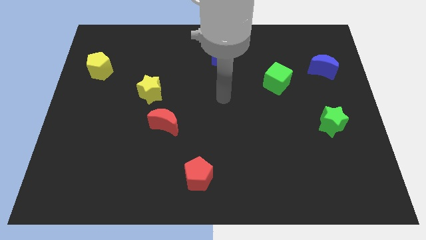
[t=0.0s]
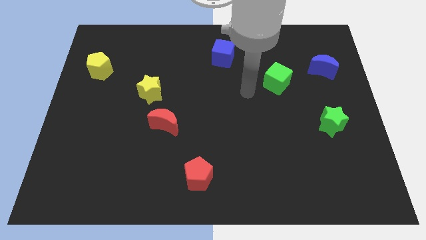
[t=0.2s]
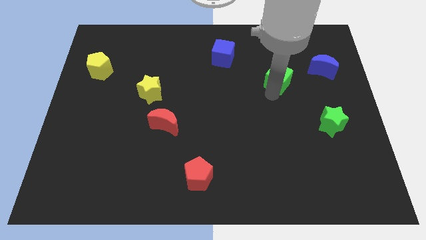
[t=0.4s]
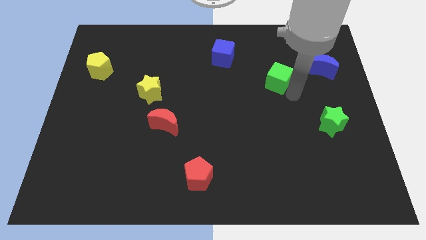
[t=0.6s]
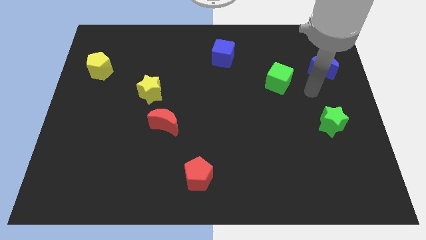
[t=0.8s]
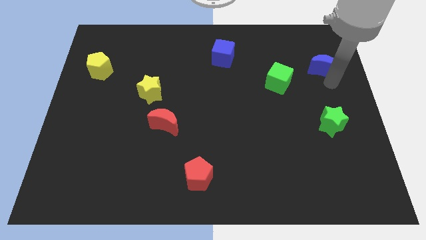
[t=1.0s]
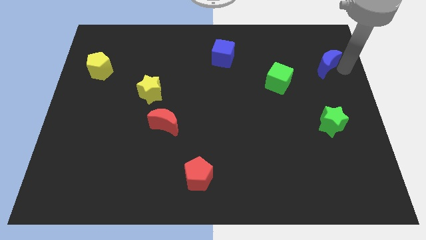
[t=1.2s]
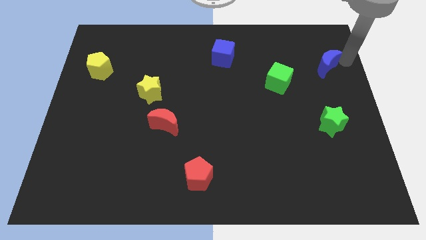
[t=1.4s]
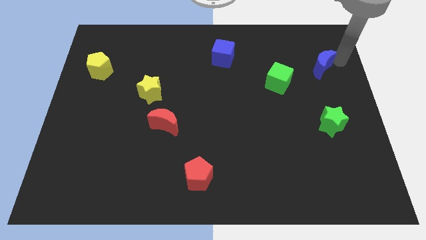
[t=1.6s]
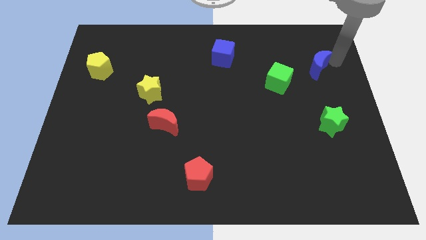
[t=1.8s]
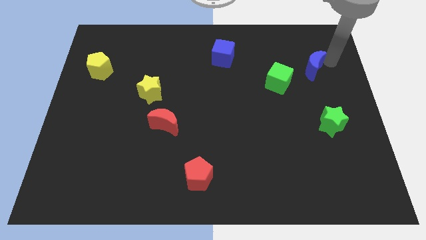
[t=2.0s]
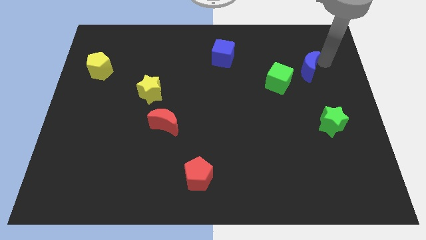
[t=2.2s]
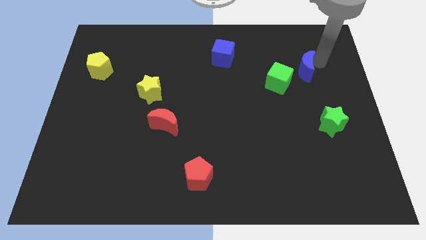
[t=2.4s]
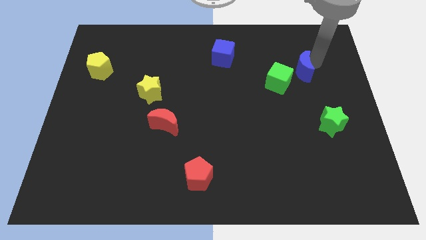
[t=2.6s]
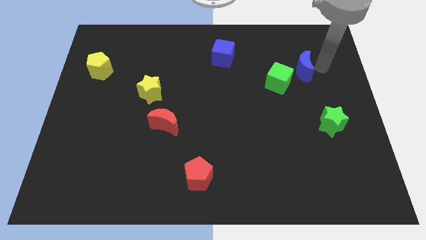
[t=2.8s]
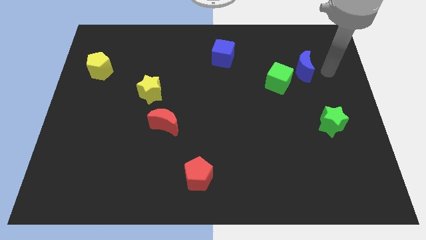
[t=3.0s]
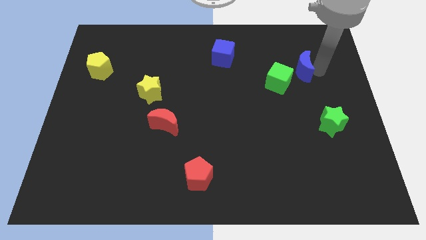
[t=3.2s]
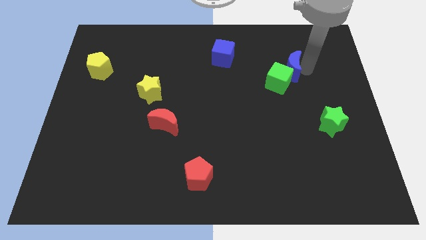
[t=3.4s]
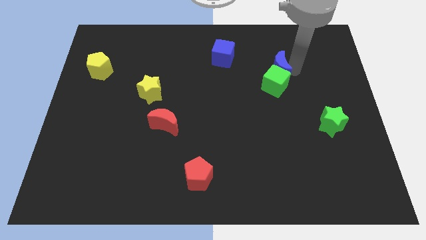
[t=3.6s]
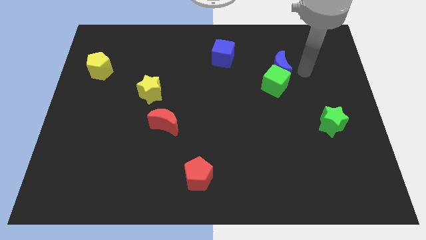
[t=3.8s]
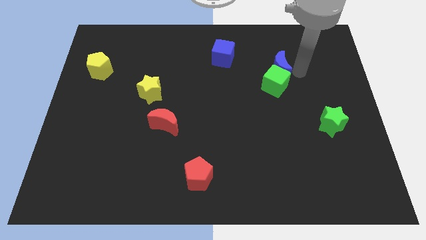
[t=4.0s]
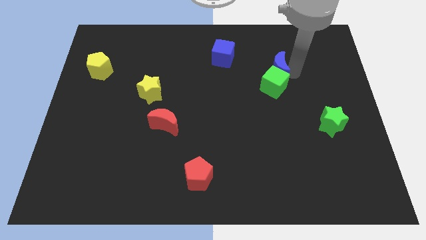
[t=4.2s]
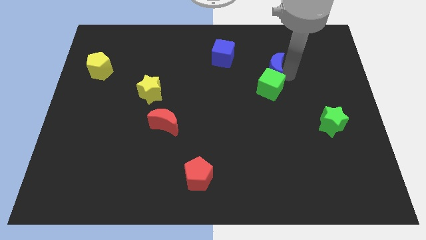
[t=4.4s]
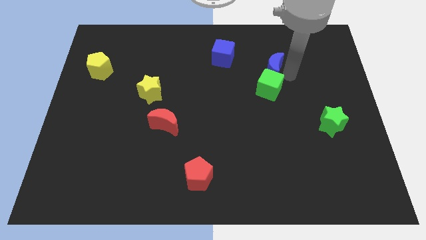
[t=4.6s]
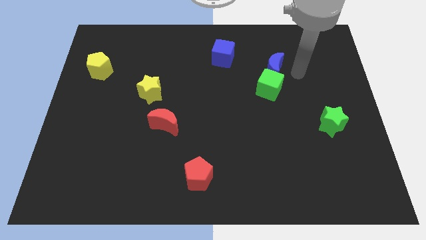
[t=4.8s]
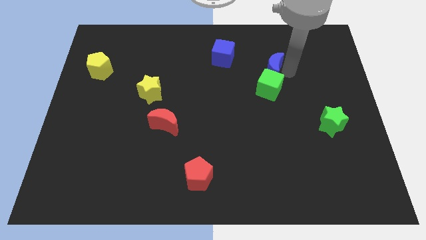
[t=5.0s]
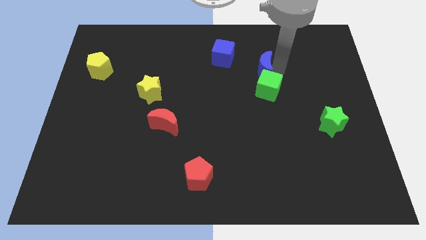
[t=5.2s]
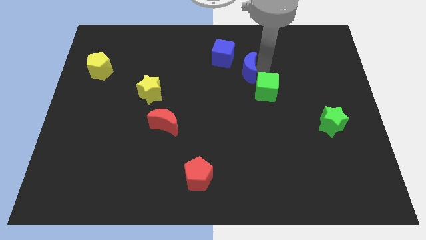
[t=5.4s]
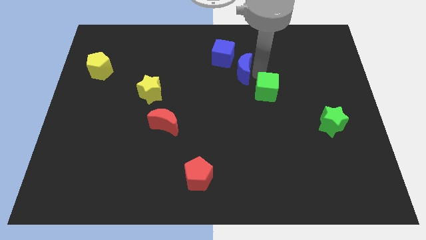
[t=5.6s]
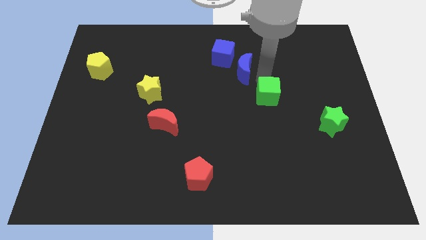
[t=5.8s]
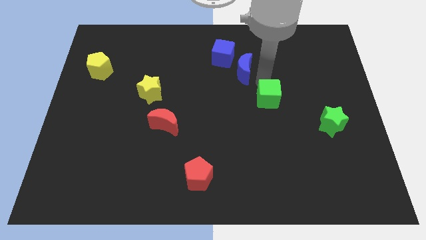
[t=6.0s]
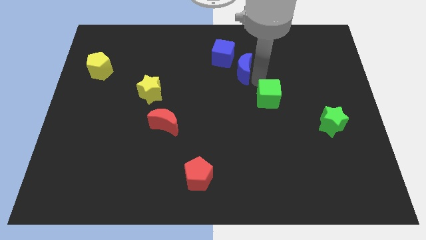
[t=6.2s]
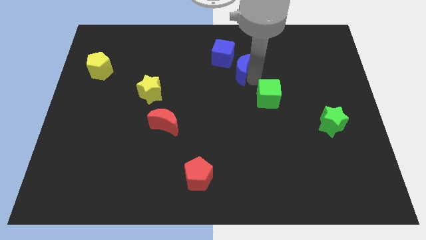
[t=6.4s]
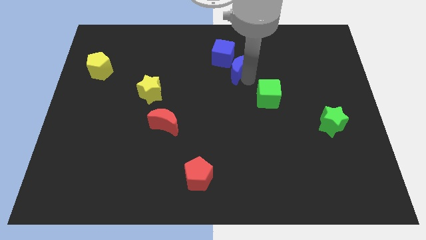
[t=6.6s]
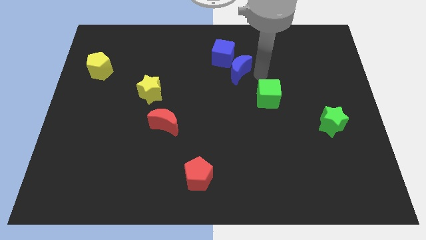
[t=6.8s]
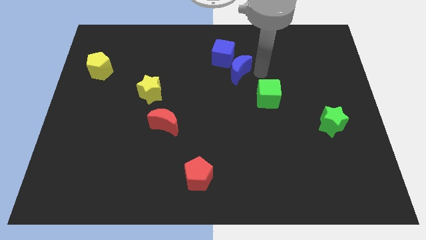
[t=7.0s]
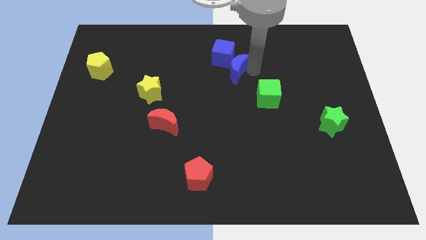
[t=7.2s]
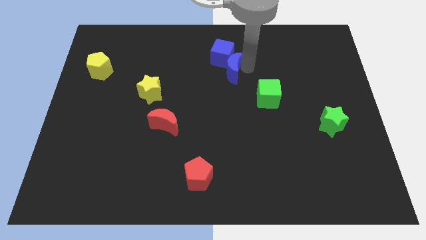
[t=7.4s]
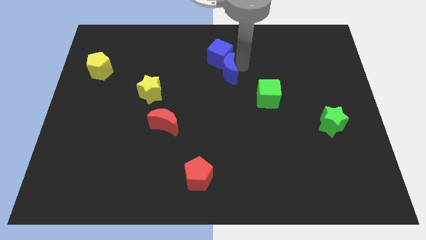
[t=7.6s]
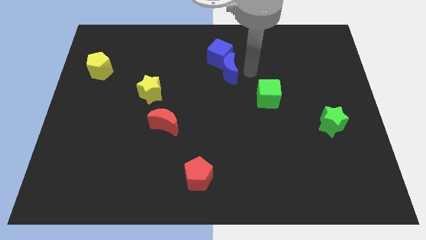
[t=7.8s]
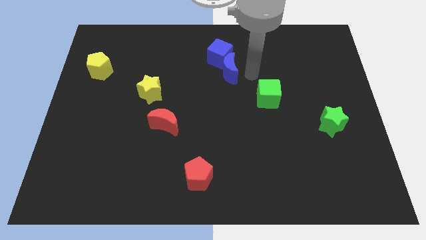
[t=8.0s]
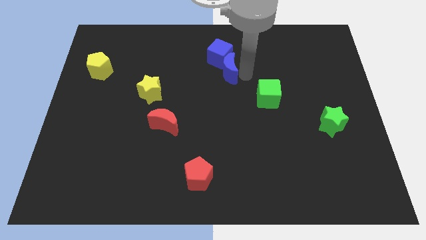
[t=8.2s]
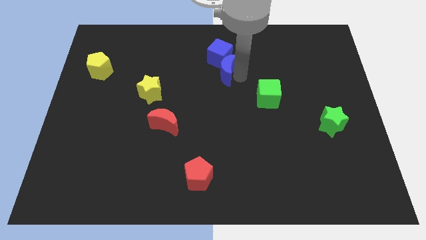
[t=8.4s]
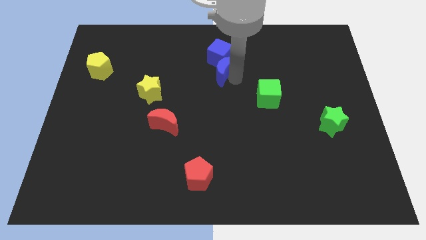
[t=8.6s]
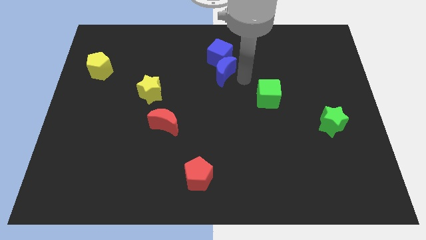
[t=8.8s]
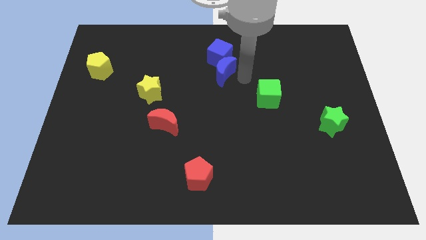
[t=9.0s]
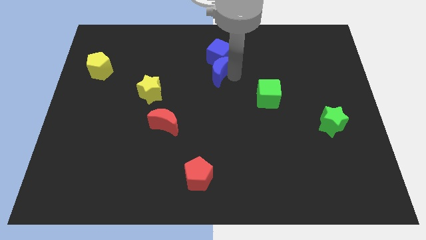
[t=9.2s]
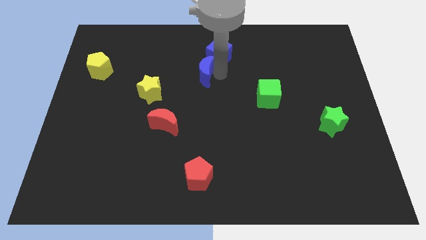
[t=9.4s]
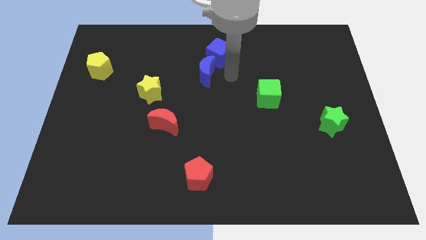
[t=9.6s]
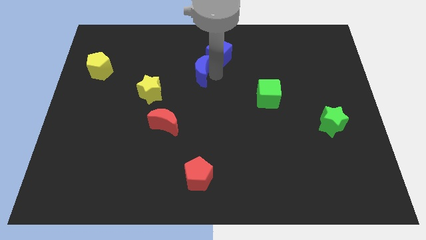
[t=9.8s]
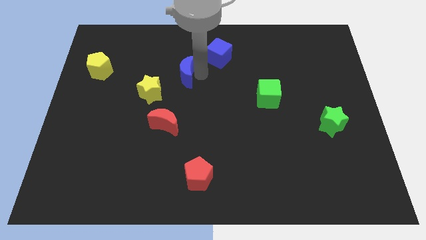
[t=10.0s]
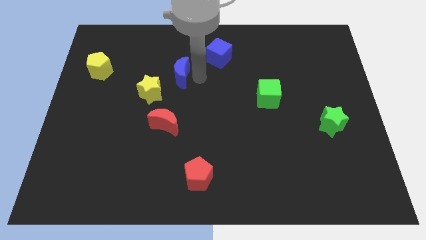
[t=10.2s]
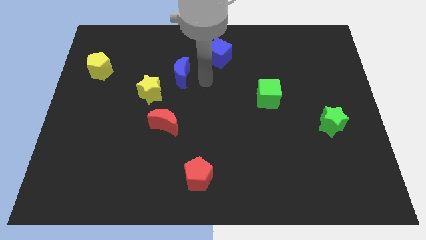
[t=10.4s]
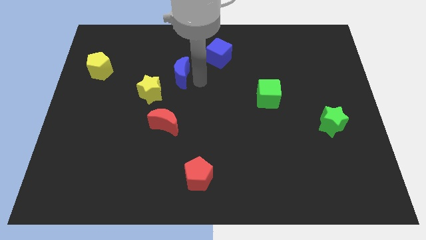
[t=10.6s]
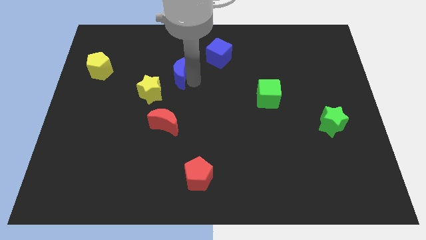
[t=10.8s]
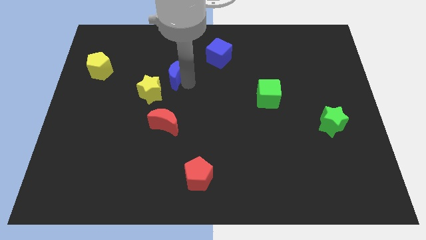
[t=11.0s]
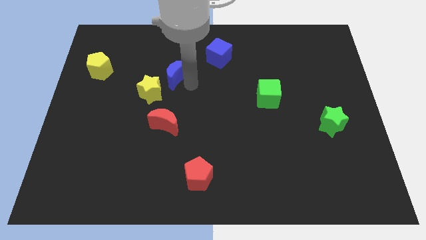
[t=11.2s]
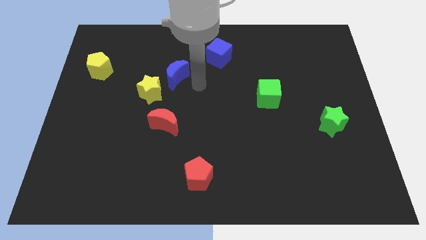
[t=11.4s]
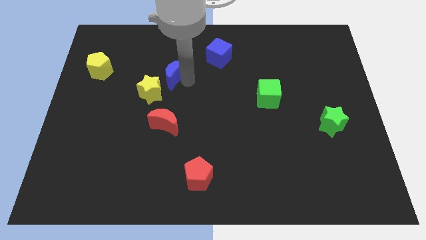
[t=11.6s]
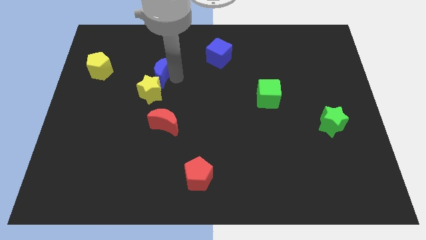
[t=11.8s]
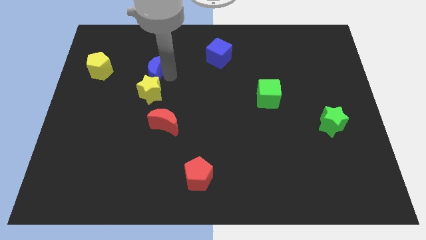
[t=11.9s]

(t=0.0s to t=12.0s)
slide the blue moon just right of the yellow pentagon

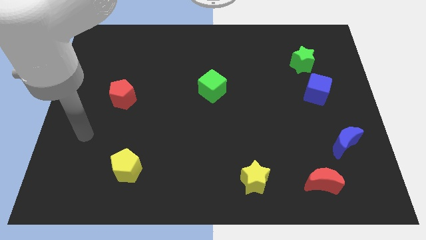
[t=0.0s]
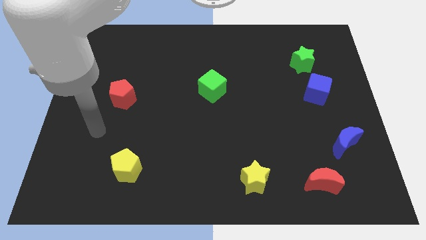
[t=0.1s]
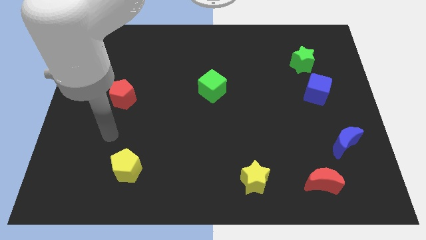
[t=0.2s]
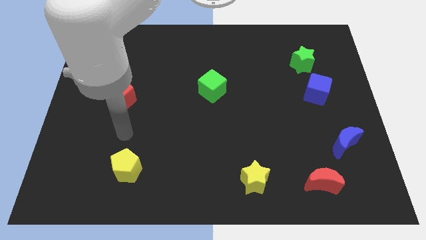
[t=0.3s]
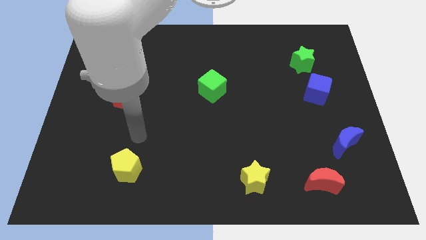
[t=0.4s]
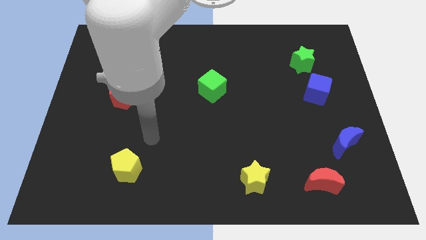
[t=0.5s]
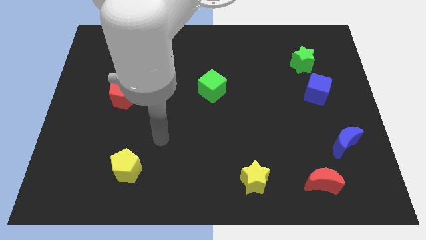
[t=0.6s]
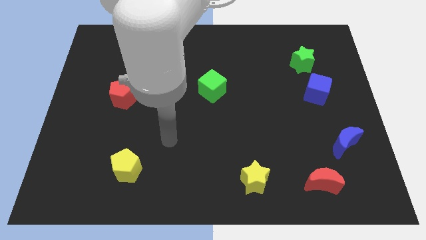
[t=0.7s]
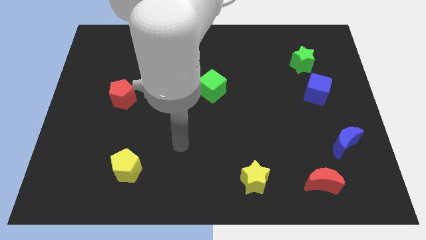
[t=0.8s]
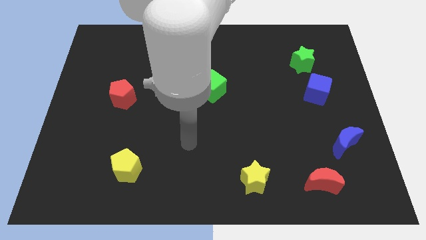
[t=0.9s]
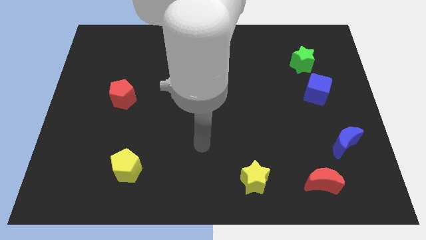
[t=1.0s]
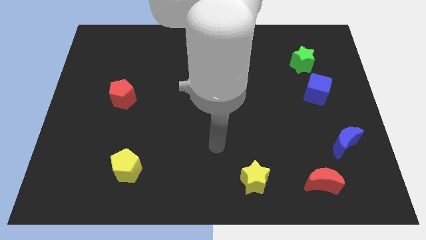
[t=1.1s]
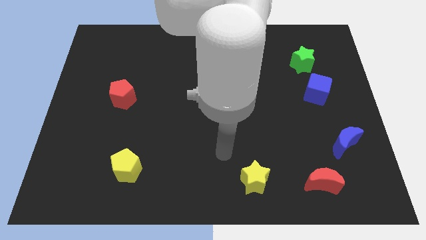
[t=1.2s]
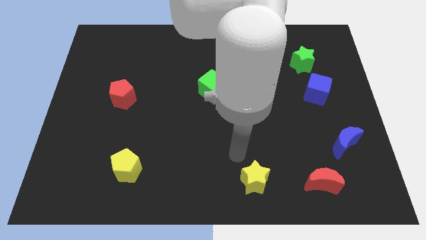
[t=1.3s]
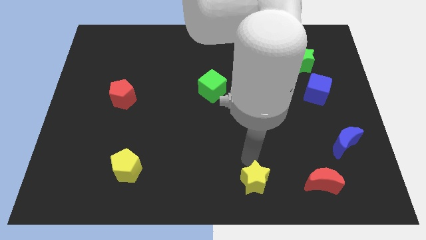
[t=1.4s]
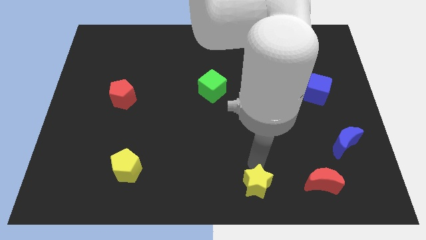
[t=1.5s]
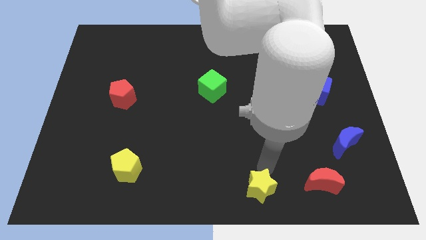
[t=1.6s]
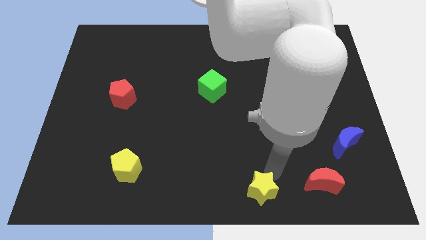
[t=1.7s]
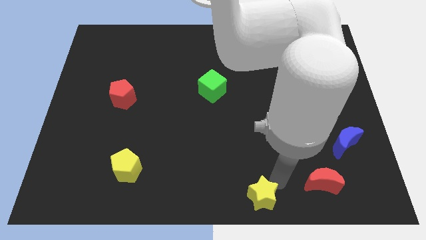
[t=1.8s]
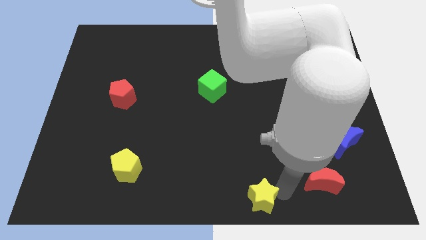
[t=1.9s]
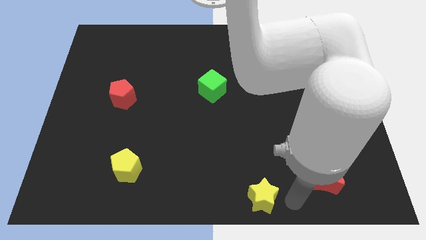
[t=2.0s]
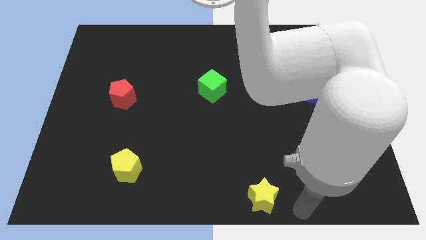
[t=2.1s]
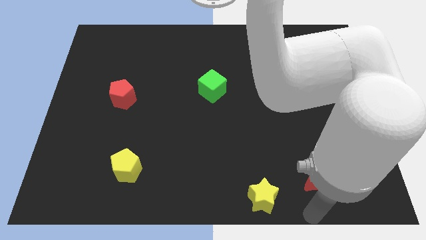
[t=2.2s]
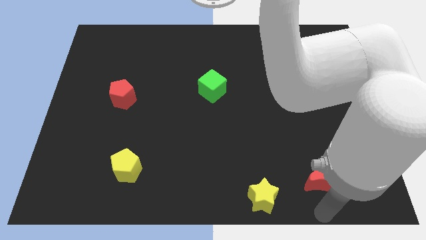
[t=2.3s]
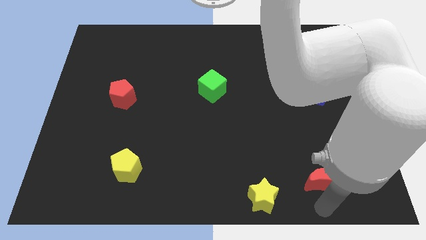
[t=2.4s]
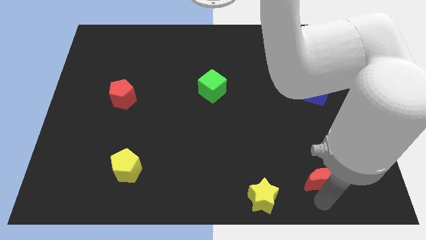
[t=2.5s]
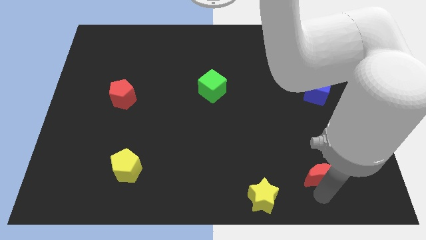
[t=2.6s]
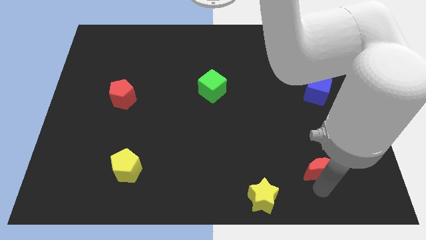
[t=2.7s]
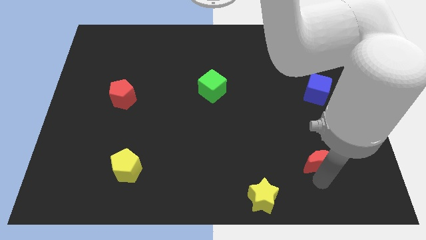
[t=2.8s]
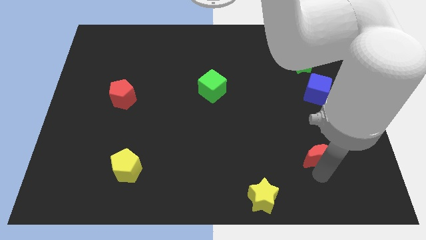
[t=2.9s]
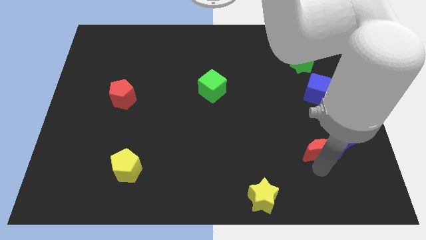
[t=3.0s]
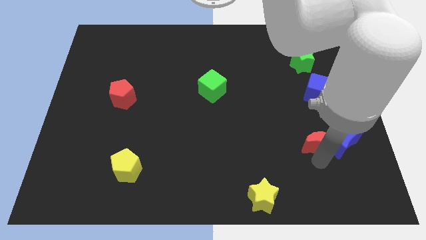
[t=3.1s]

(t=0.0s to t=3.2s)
put the red moon to the top left side of the blue moon
